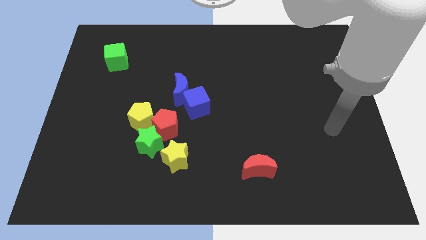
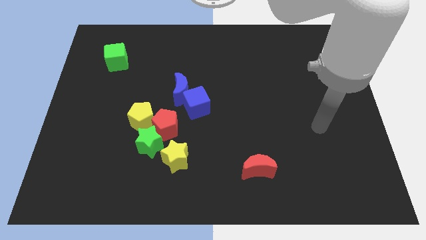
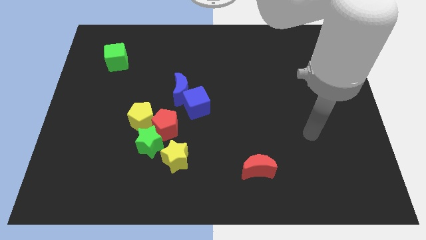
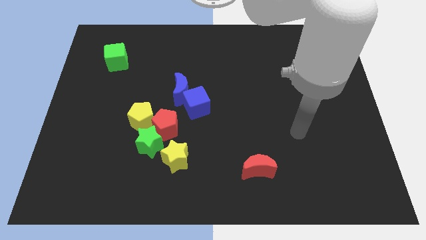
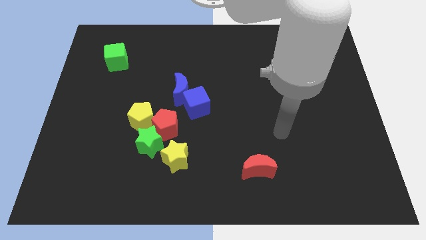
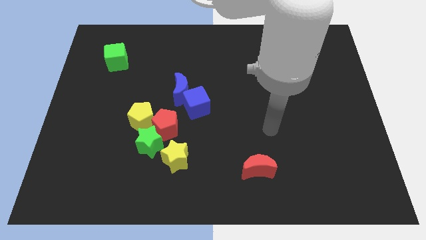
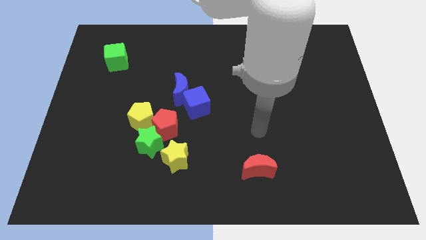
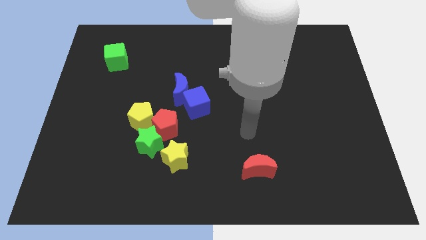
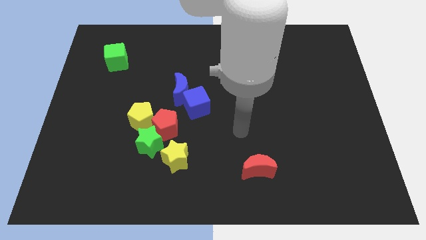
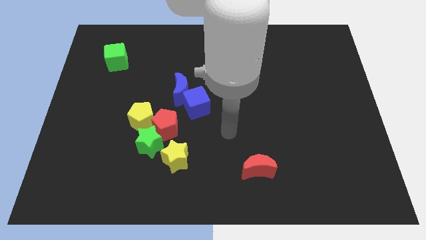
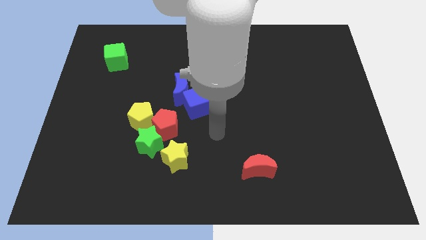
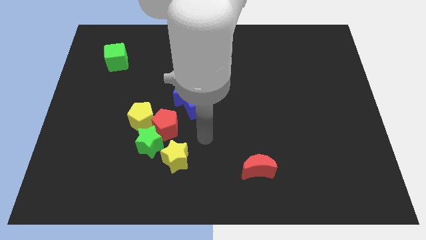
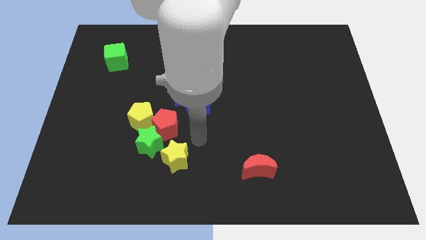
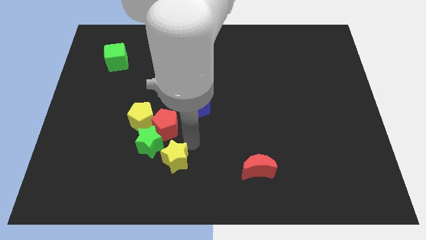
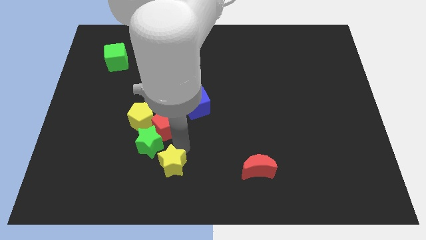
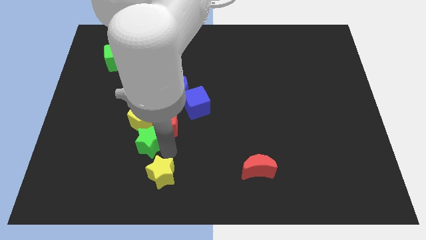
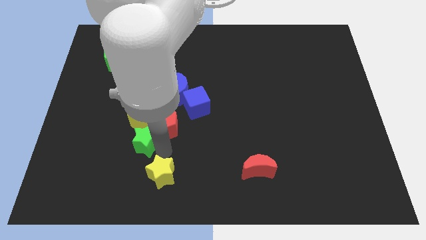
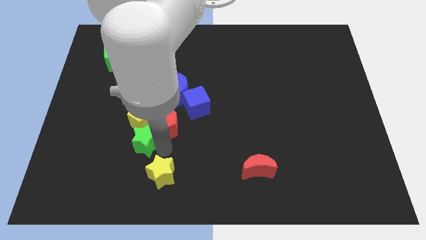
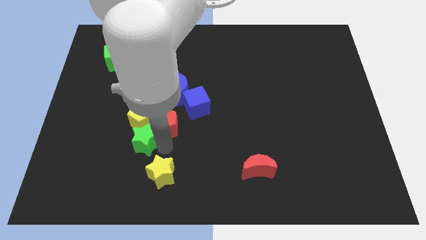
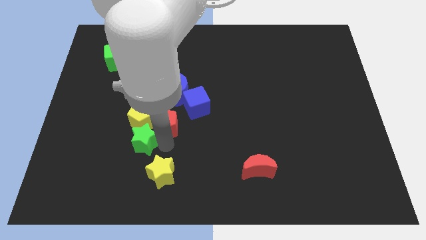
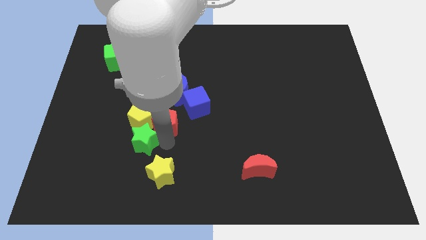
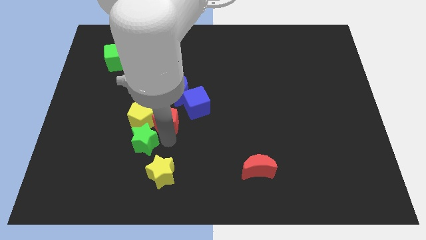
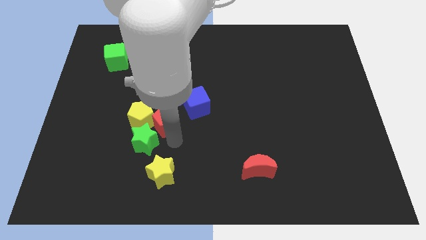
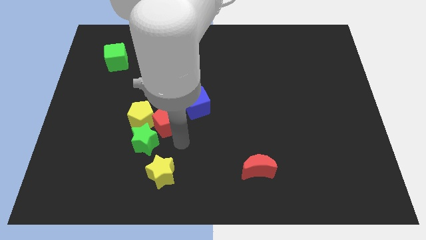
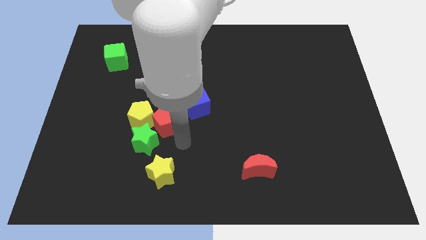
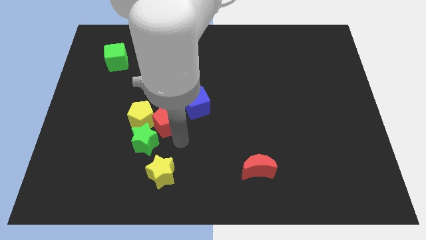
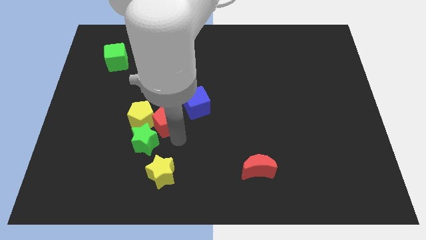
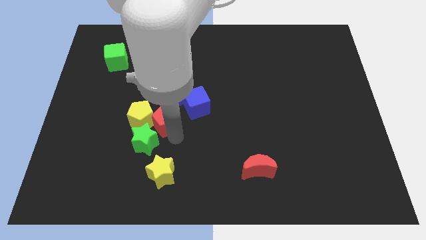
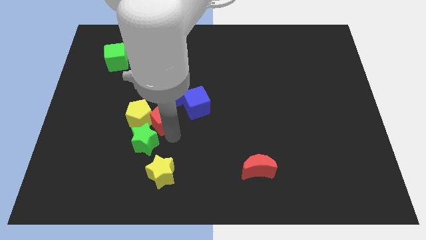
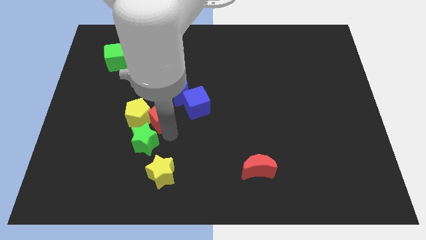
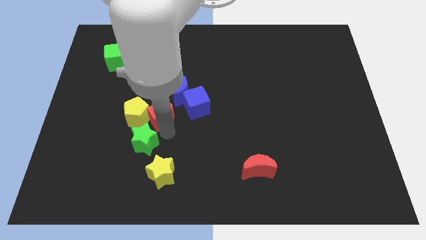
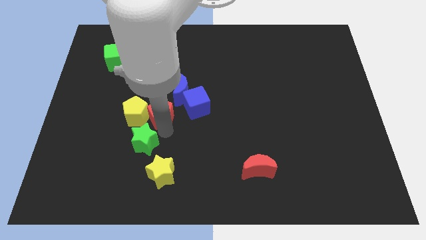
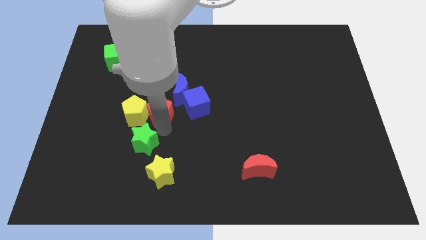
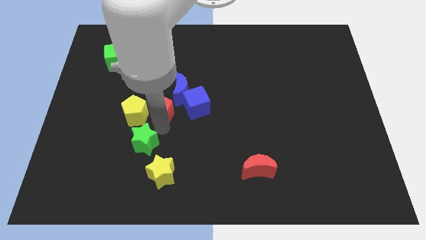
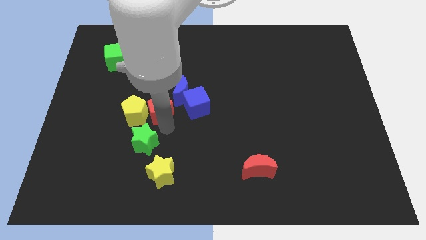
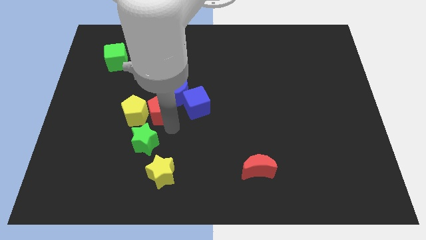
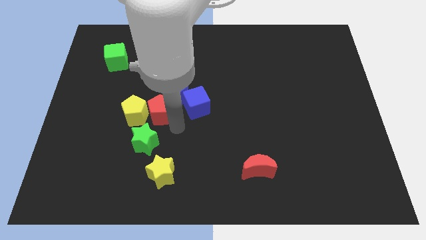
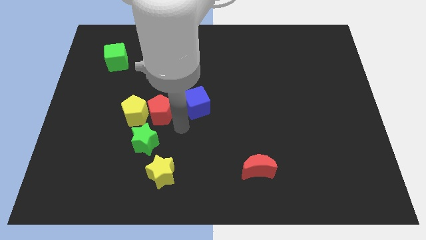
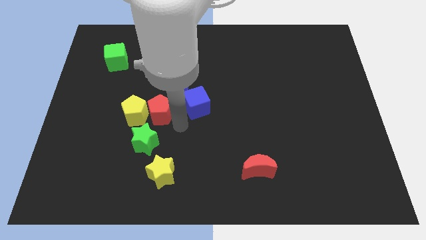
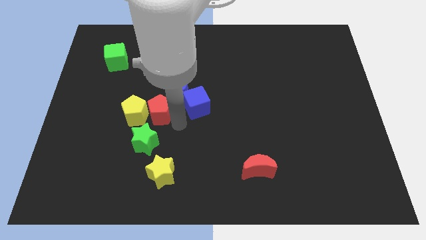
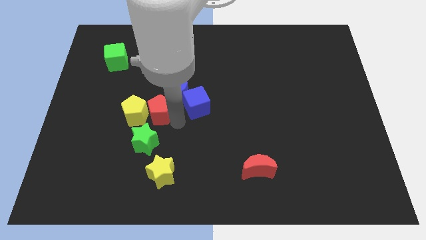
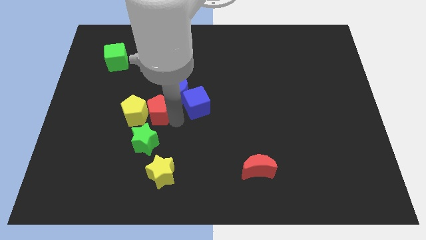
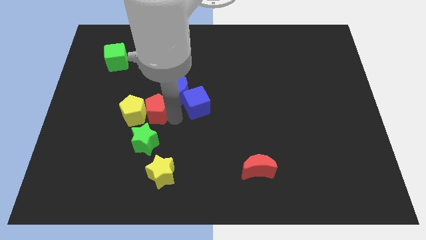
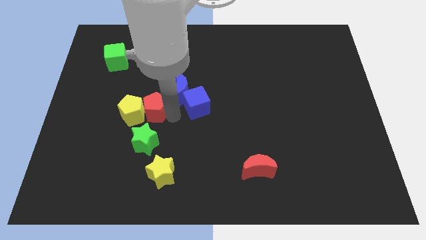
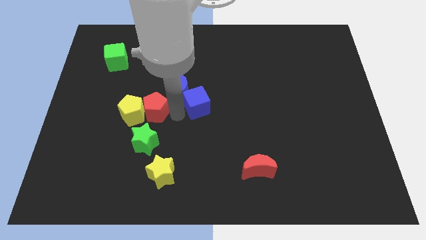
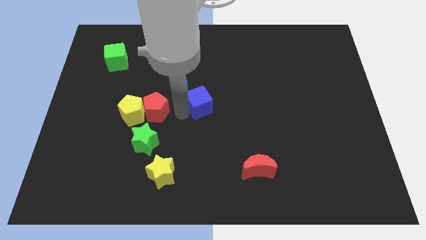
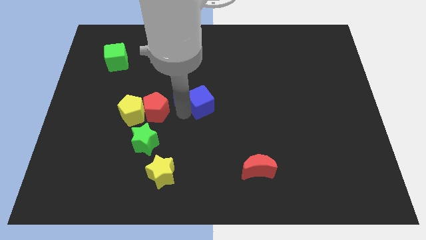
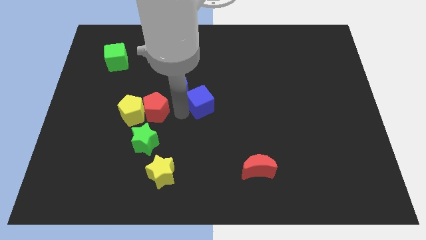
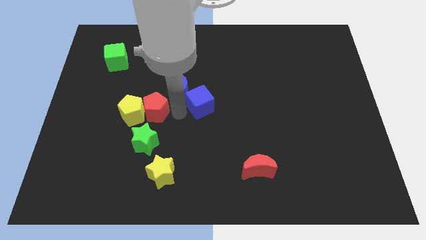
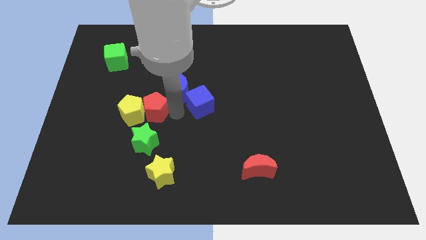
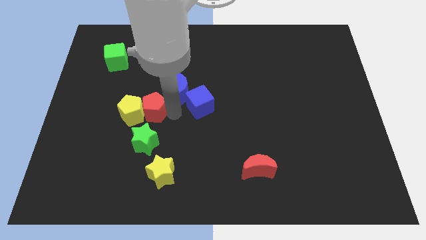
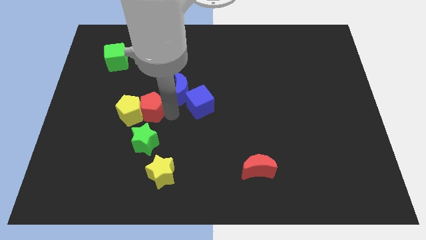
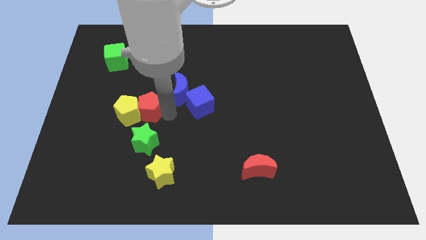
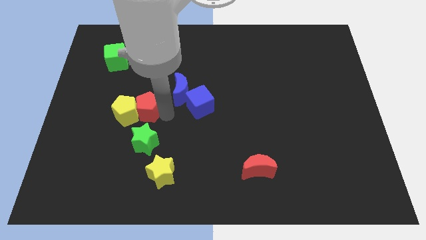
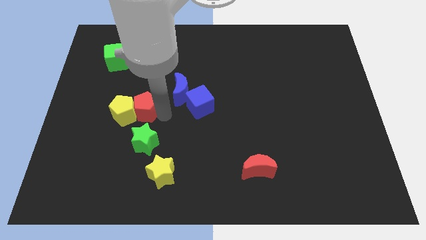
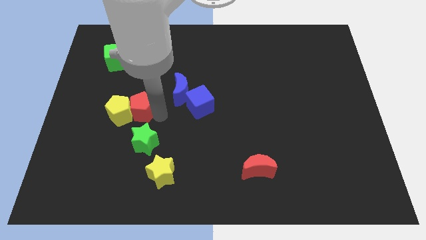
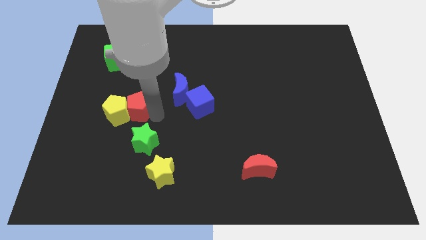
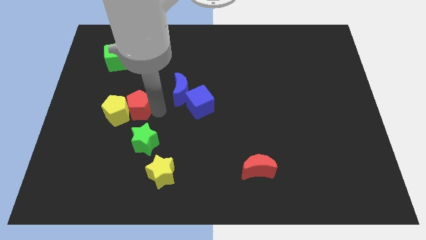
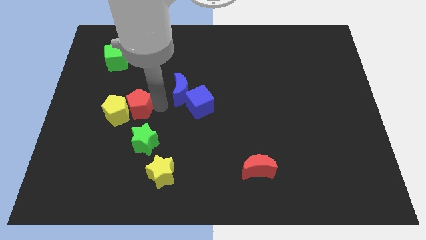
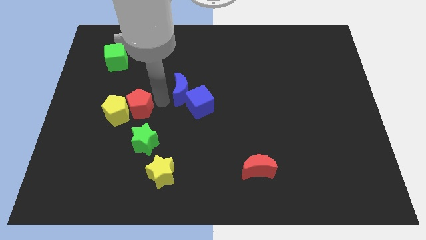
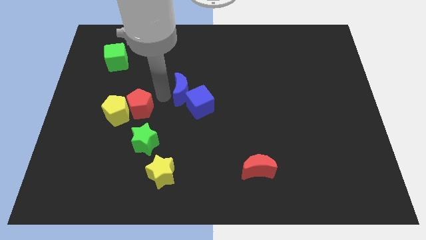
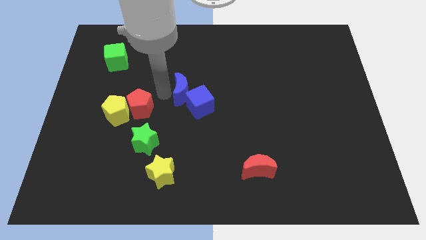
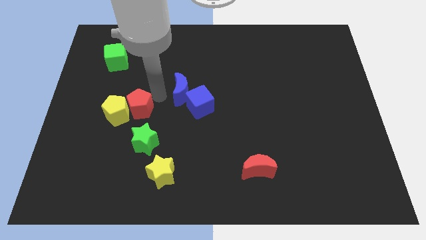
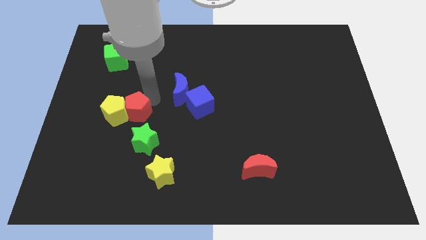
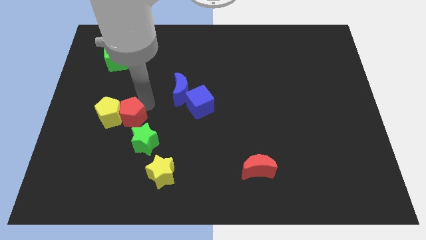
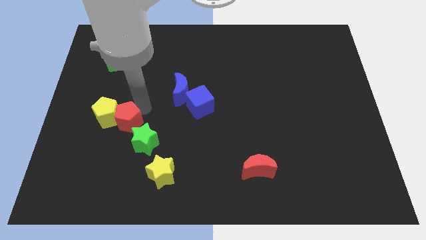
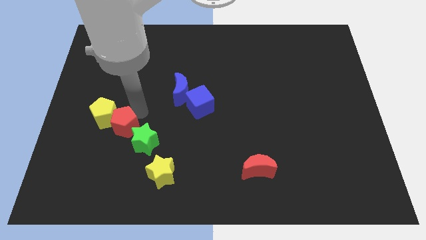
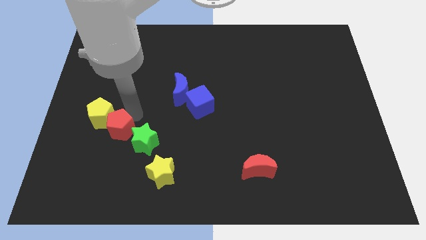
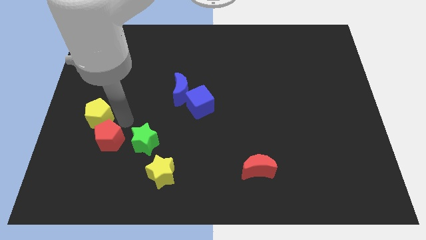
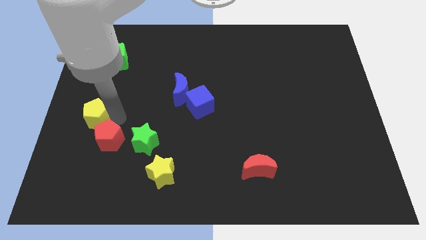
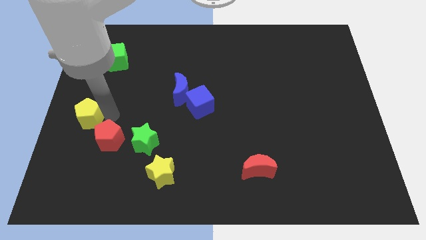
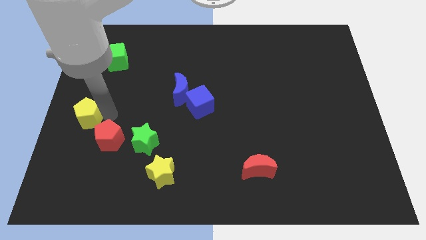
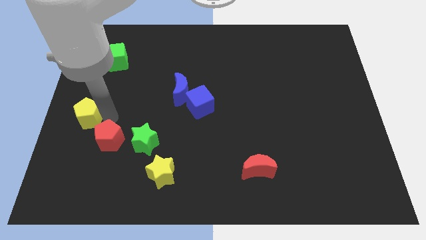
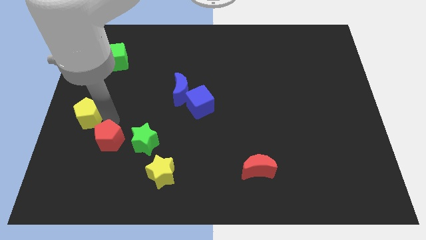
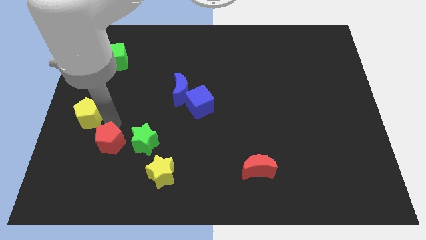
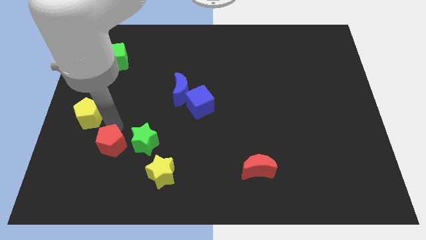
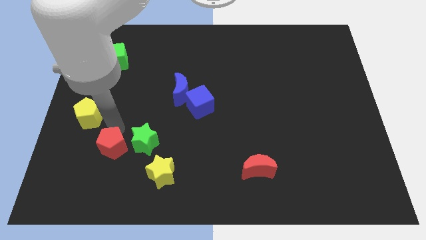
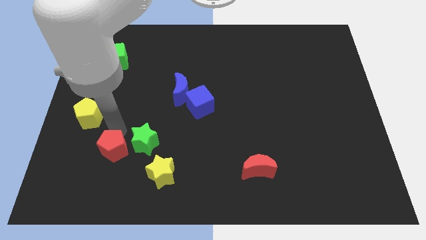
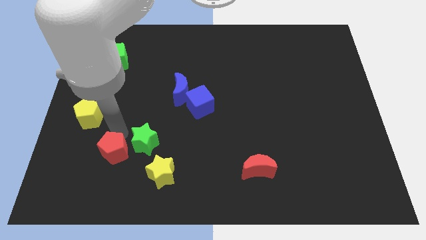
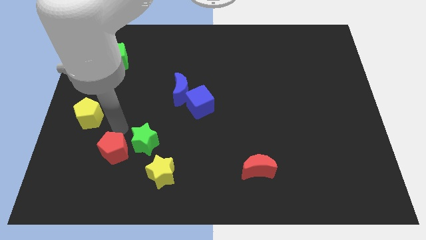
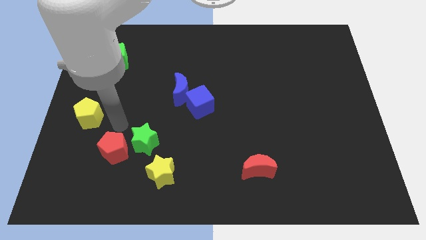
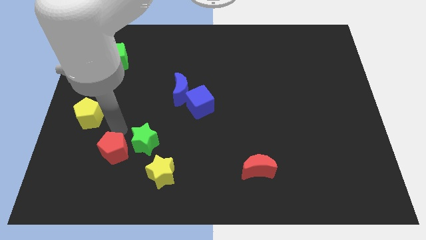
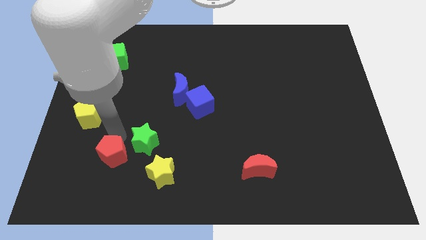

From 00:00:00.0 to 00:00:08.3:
move the red pentagon just left of the yellow star
